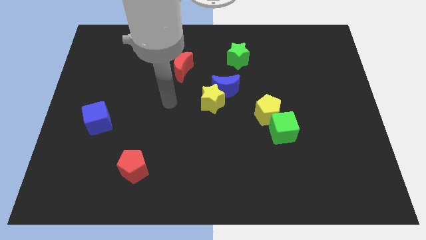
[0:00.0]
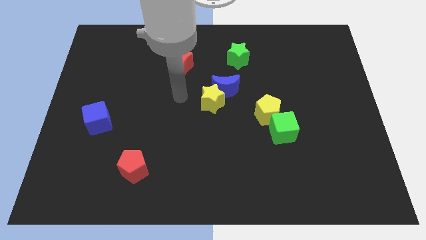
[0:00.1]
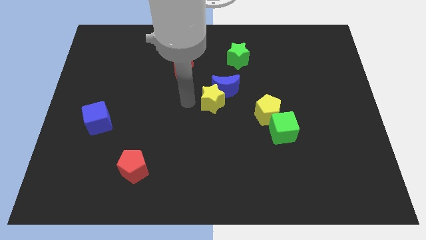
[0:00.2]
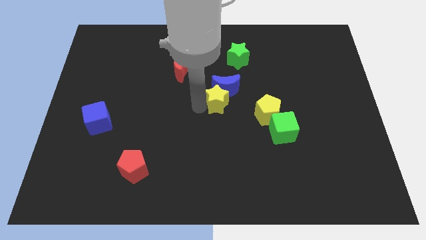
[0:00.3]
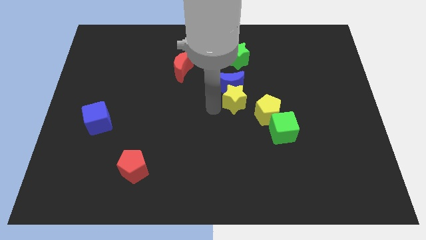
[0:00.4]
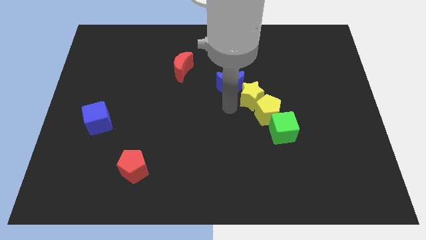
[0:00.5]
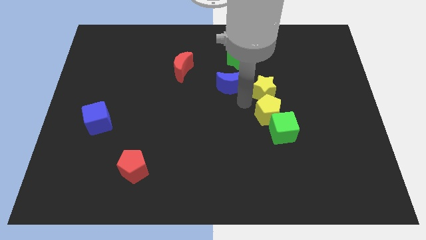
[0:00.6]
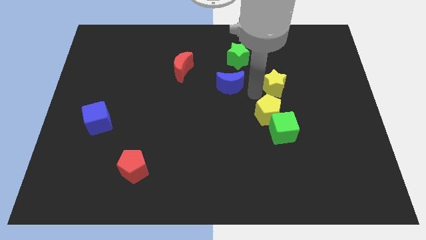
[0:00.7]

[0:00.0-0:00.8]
move the blue moon away from the yellow star

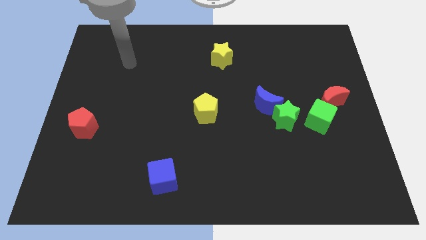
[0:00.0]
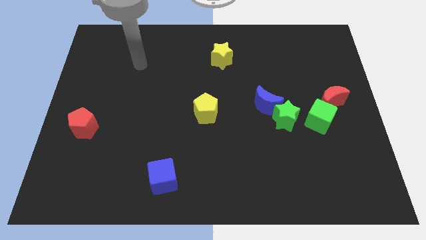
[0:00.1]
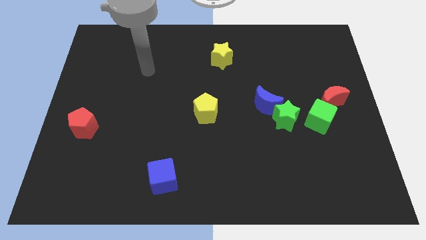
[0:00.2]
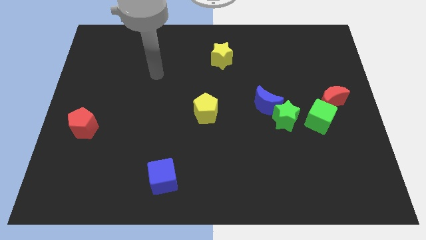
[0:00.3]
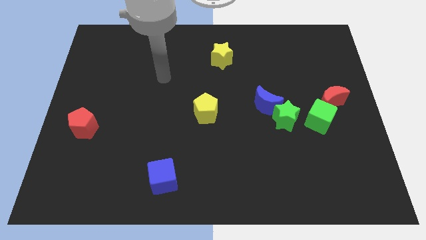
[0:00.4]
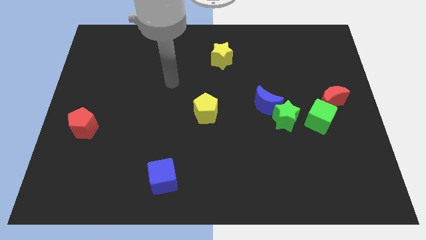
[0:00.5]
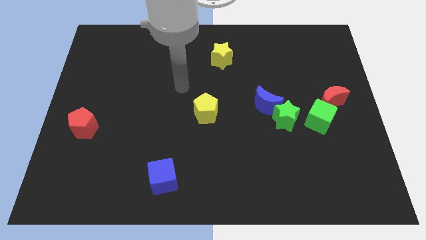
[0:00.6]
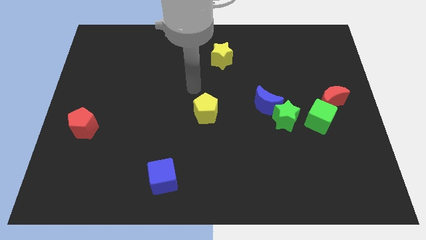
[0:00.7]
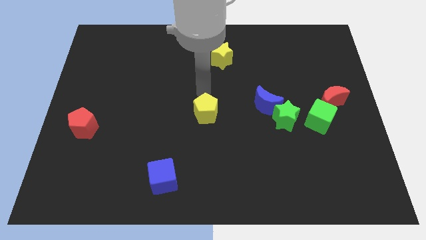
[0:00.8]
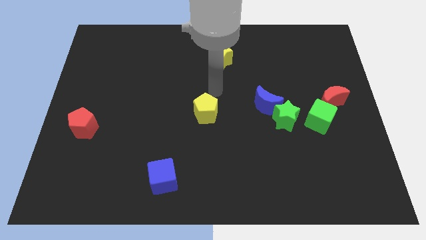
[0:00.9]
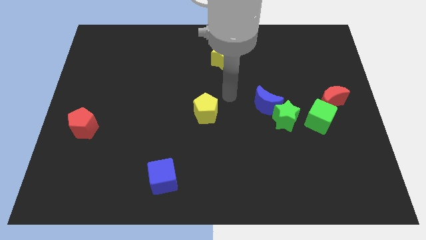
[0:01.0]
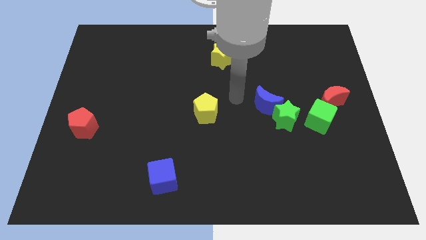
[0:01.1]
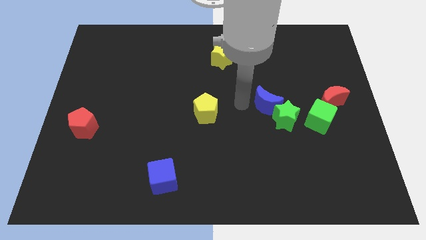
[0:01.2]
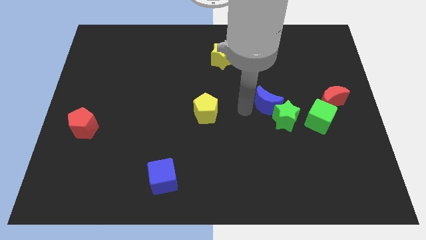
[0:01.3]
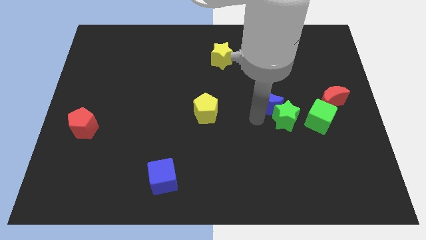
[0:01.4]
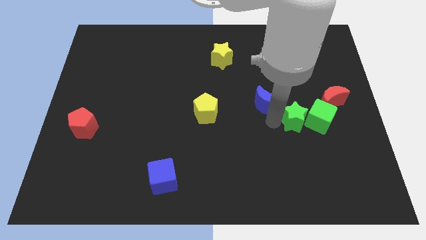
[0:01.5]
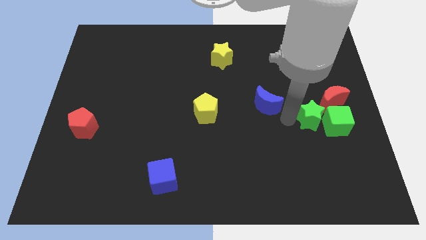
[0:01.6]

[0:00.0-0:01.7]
pull the blue moon apart from the green star

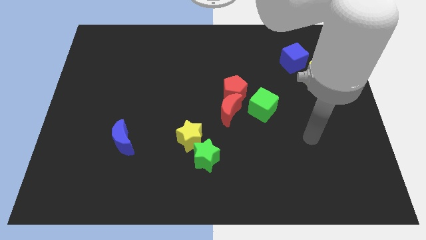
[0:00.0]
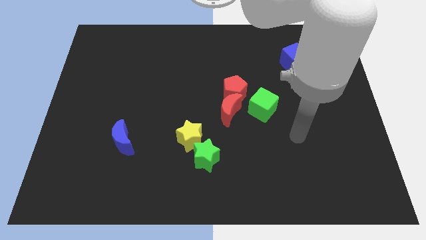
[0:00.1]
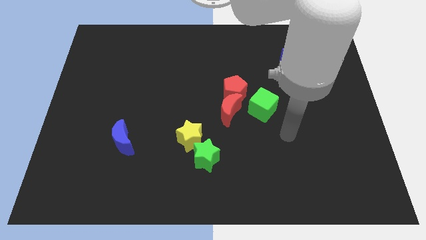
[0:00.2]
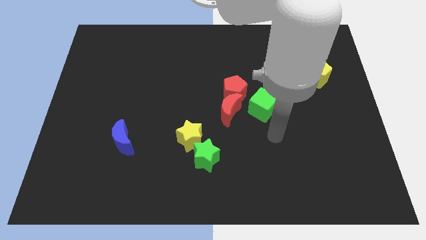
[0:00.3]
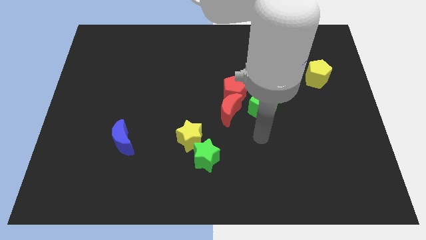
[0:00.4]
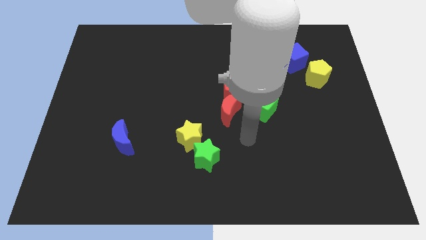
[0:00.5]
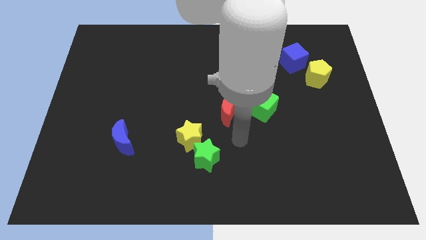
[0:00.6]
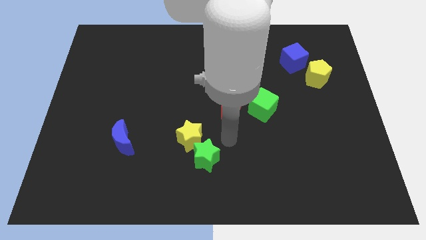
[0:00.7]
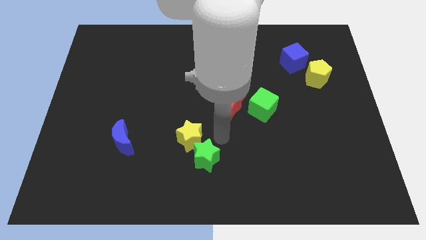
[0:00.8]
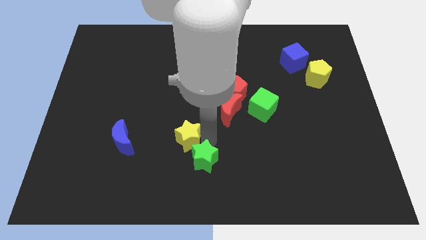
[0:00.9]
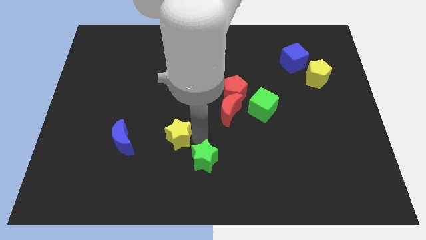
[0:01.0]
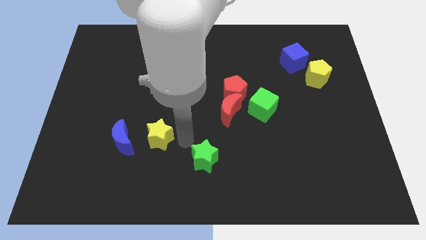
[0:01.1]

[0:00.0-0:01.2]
pull the green star apart from the yellow star

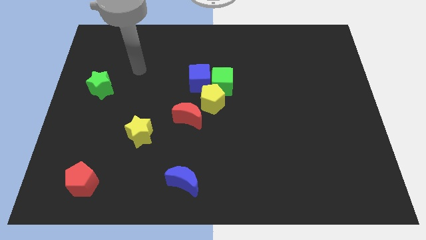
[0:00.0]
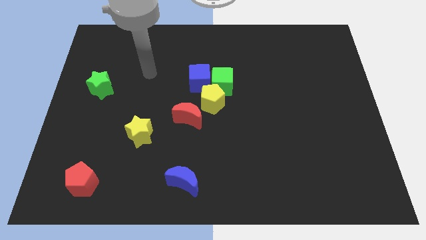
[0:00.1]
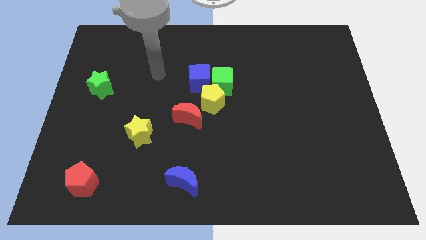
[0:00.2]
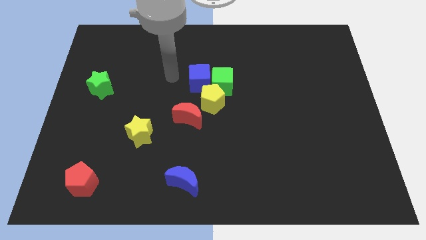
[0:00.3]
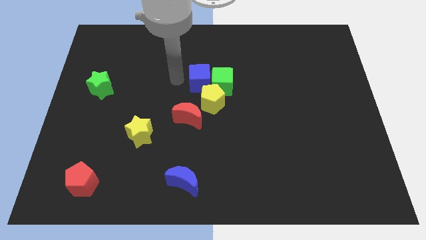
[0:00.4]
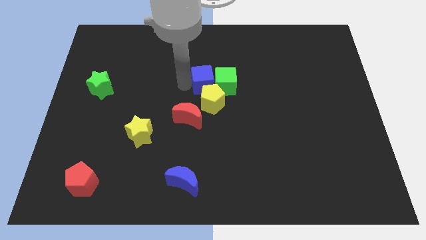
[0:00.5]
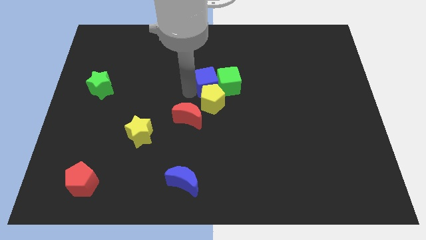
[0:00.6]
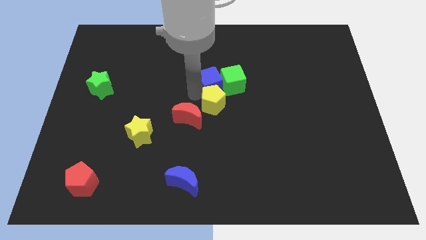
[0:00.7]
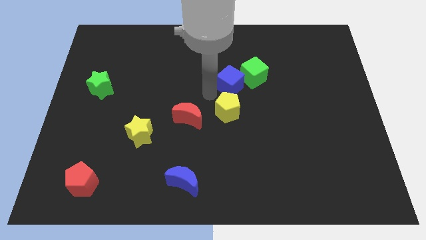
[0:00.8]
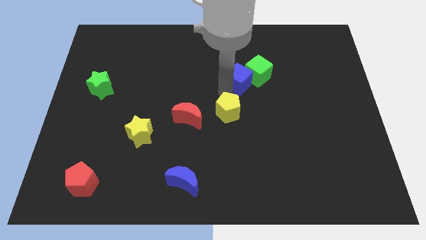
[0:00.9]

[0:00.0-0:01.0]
move the green cube away from the blue cube and yellow pentagon

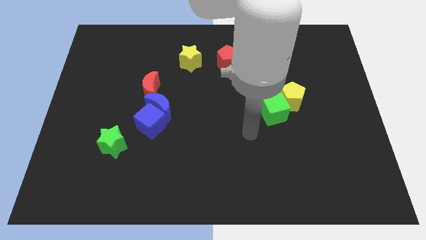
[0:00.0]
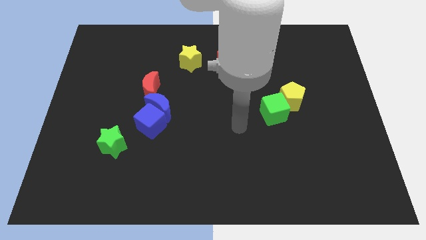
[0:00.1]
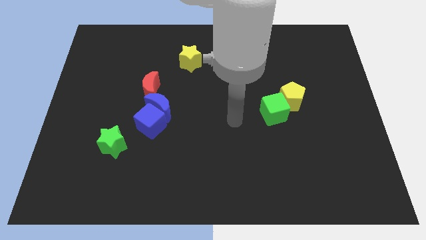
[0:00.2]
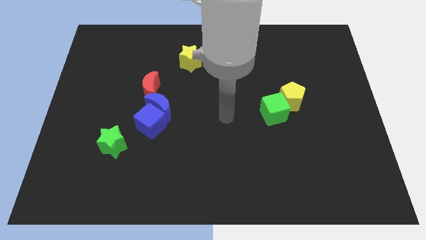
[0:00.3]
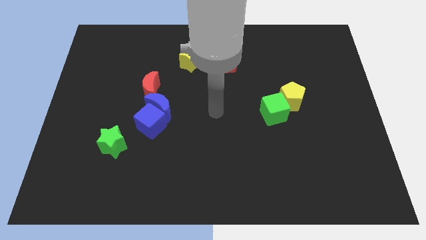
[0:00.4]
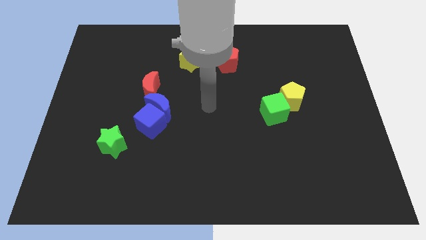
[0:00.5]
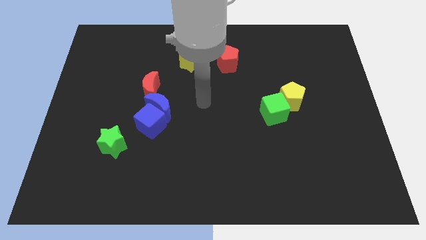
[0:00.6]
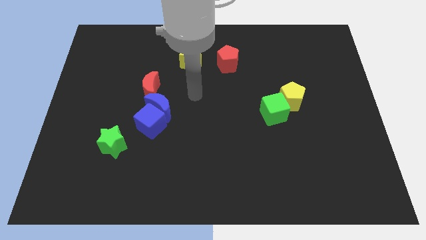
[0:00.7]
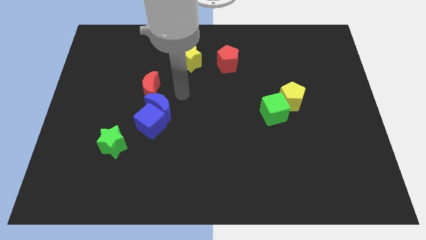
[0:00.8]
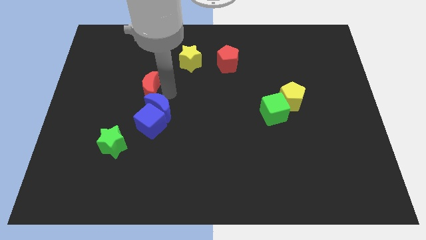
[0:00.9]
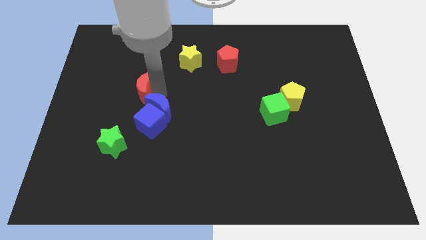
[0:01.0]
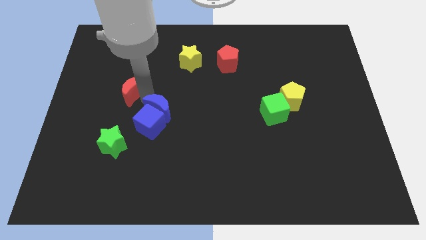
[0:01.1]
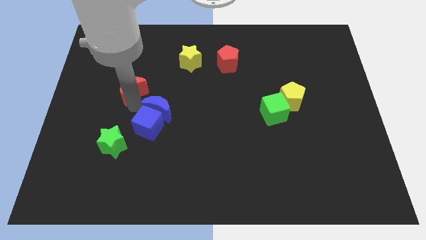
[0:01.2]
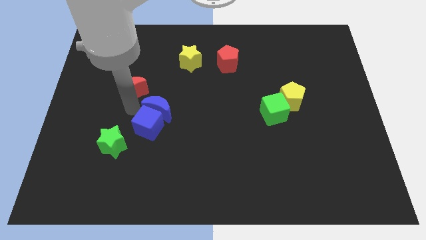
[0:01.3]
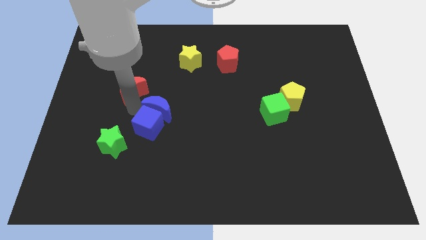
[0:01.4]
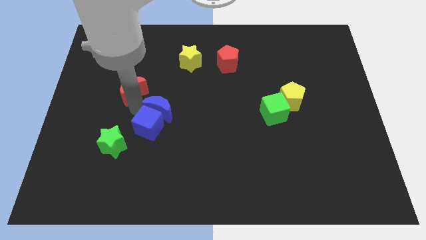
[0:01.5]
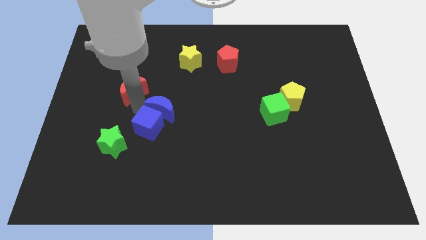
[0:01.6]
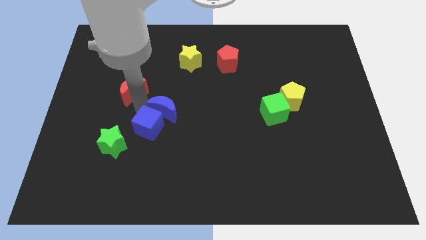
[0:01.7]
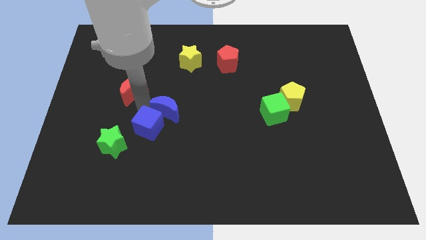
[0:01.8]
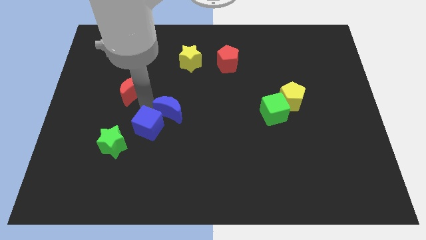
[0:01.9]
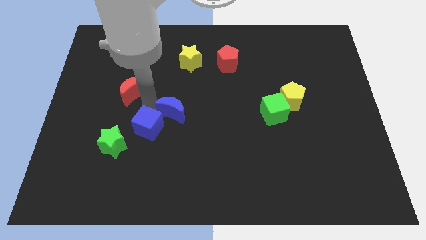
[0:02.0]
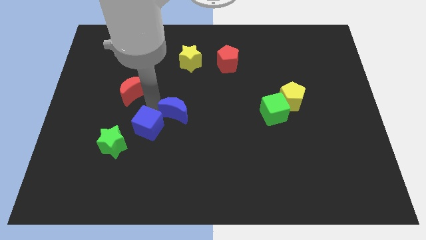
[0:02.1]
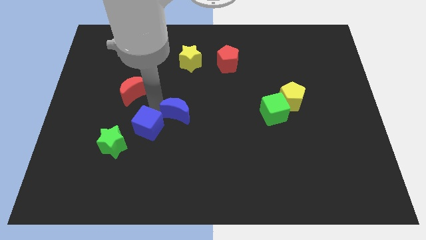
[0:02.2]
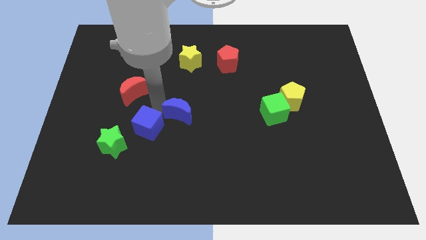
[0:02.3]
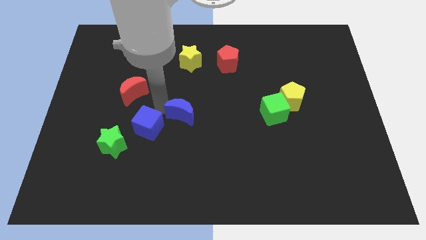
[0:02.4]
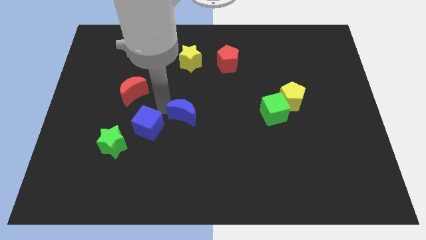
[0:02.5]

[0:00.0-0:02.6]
pull the blue moon apart from the blue cube and red moon

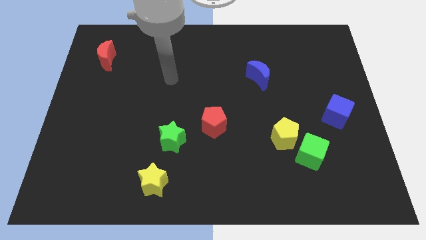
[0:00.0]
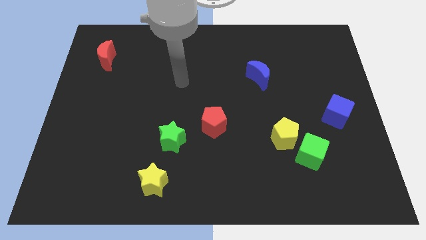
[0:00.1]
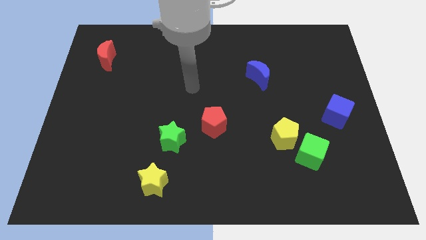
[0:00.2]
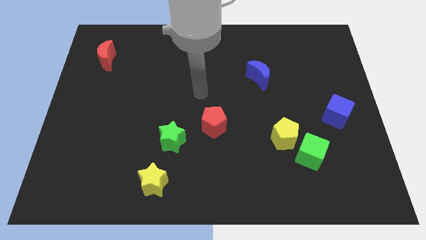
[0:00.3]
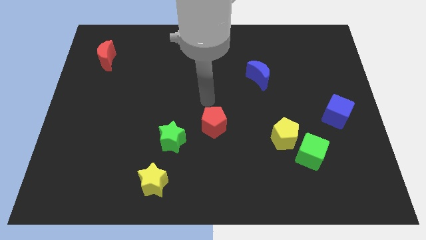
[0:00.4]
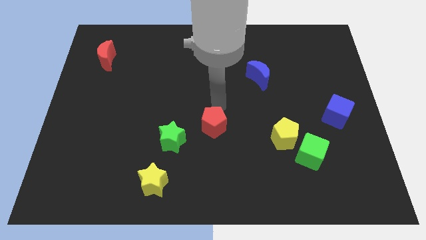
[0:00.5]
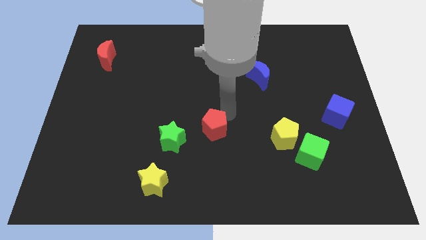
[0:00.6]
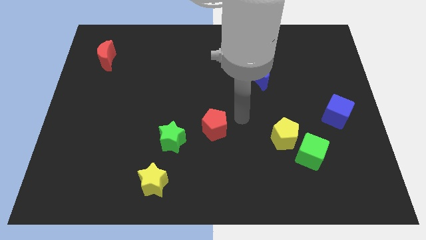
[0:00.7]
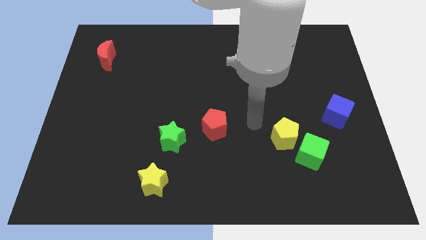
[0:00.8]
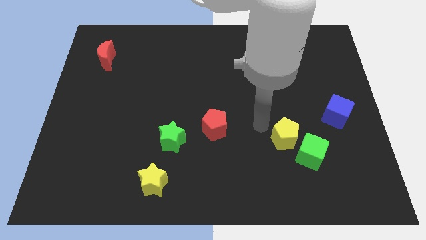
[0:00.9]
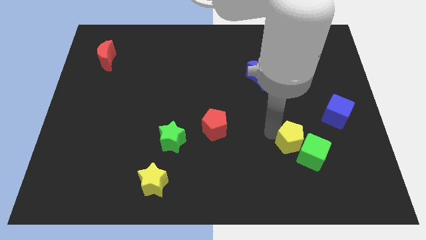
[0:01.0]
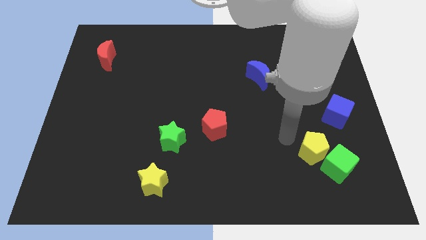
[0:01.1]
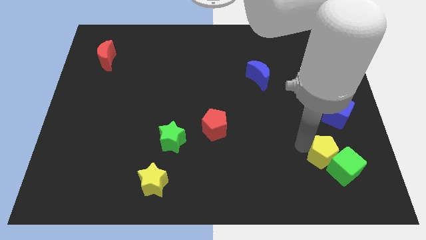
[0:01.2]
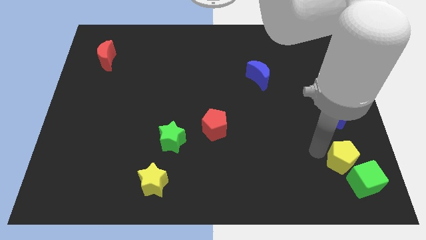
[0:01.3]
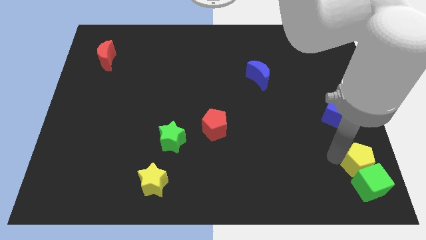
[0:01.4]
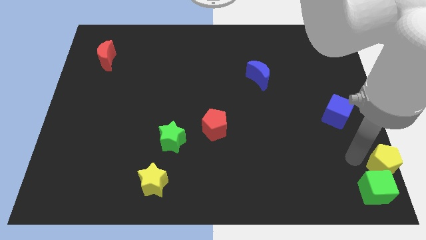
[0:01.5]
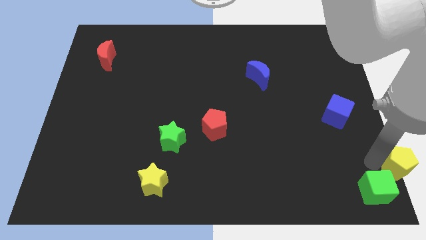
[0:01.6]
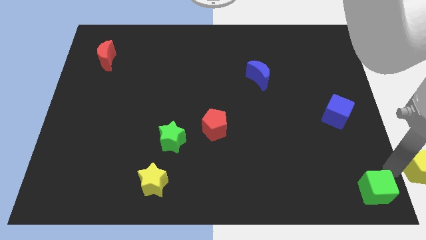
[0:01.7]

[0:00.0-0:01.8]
pull the green cube apart from the yellow pentagon

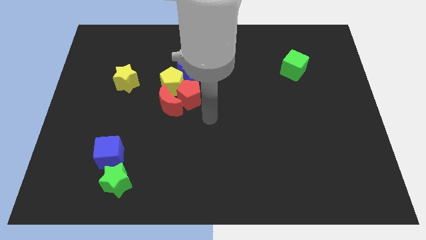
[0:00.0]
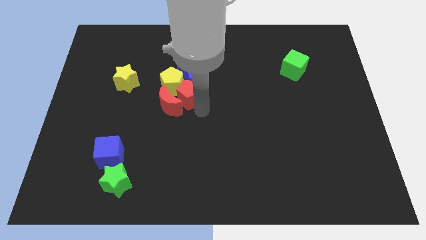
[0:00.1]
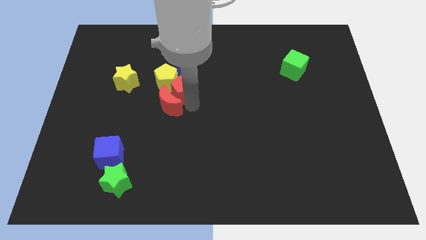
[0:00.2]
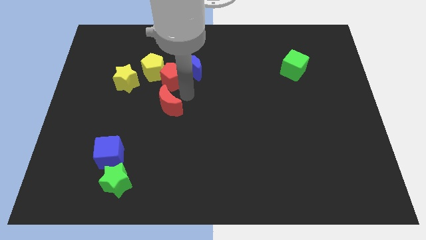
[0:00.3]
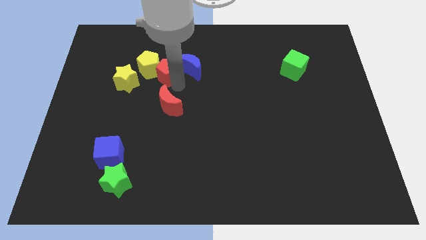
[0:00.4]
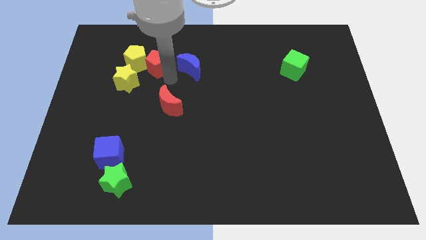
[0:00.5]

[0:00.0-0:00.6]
move the yellow pentagon away from the group of blocks
